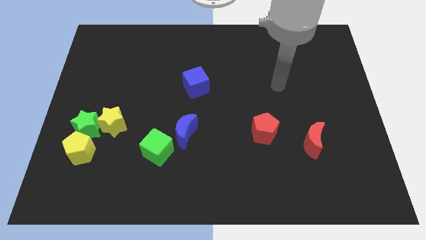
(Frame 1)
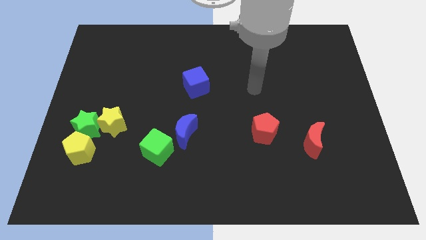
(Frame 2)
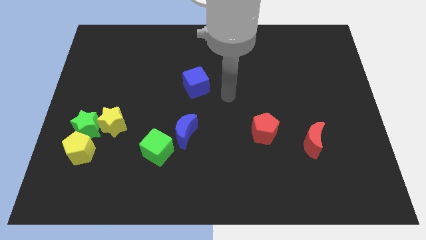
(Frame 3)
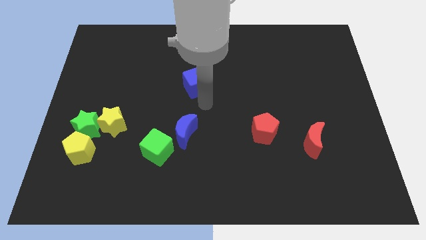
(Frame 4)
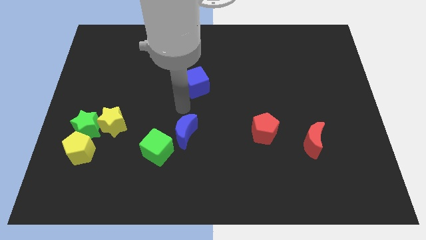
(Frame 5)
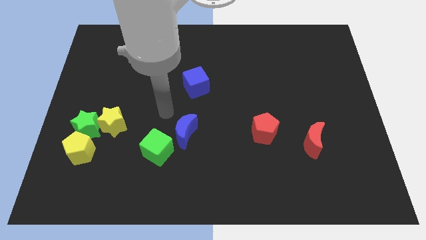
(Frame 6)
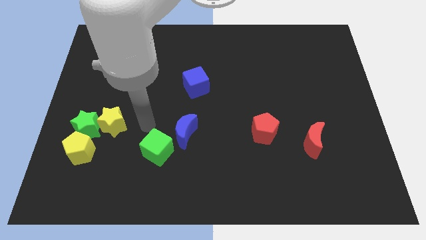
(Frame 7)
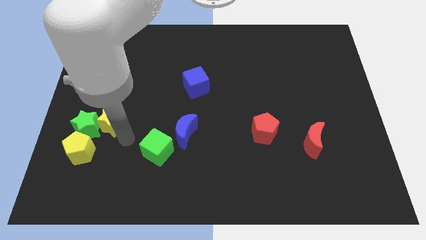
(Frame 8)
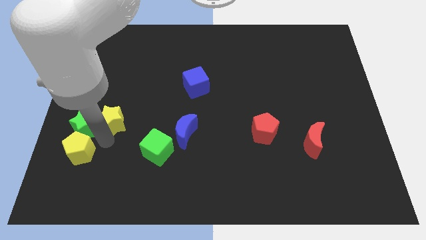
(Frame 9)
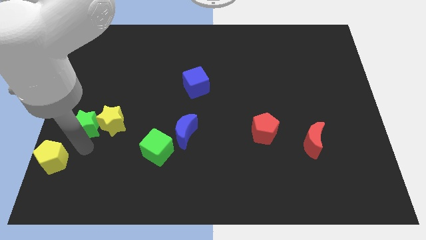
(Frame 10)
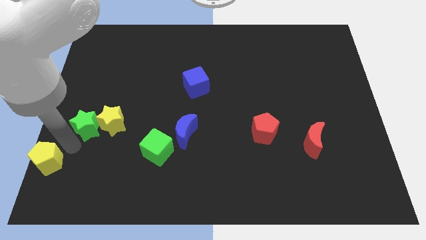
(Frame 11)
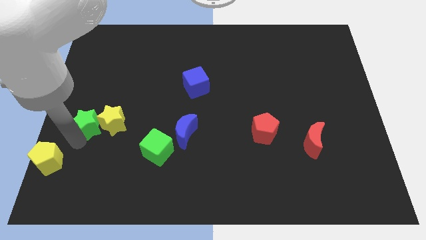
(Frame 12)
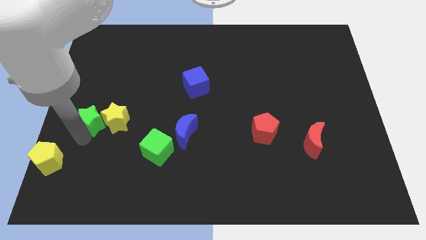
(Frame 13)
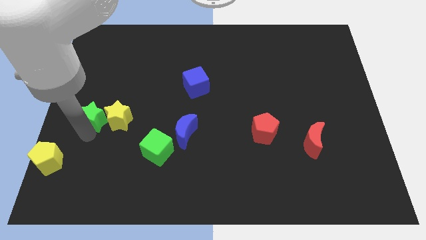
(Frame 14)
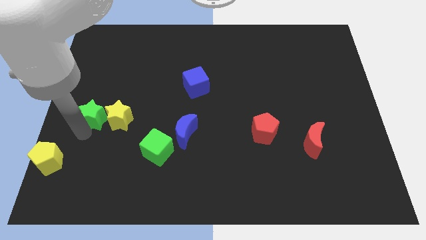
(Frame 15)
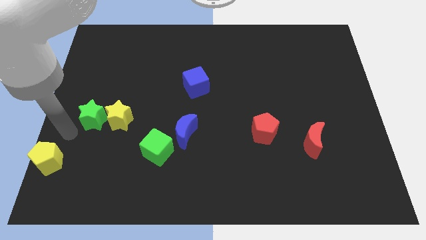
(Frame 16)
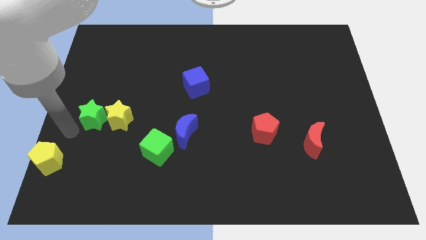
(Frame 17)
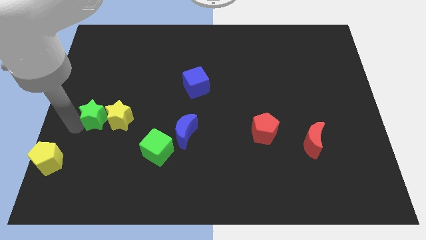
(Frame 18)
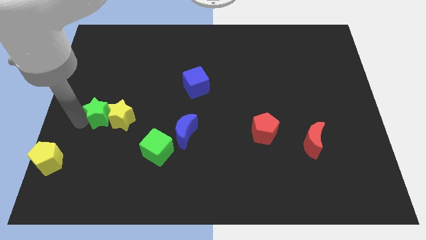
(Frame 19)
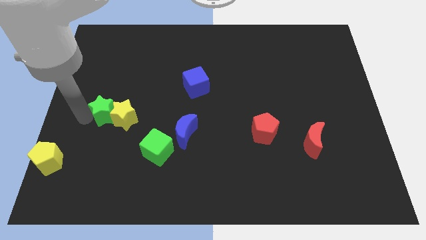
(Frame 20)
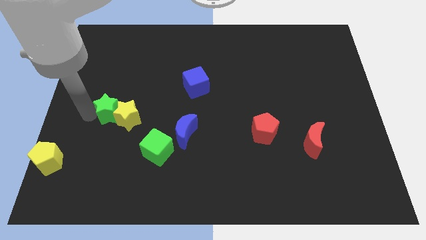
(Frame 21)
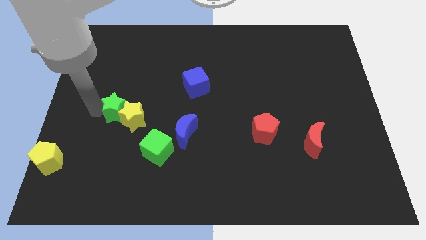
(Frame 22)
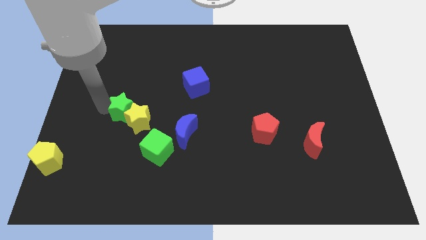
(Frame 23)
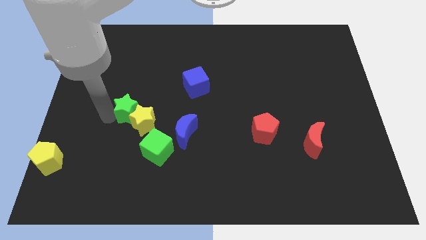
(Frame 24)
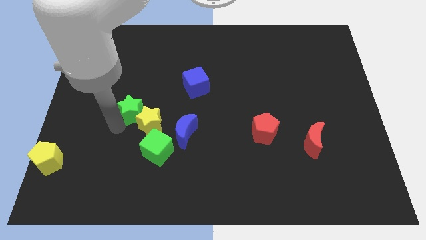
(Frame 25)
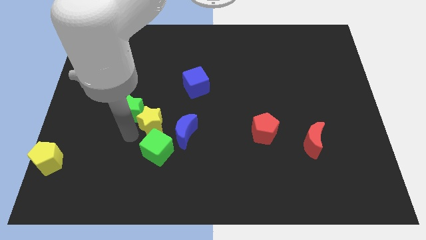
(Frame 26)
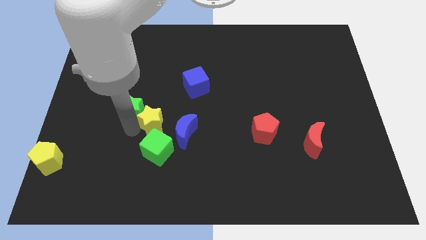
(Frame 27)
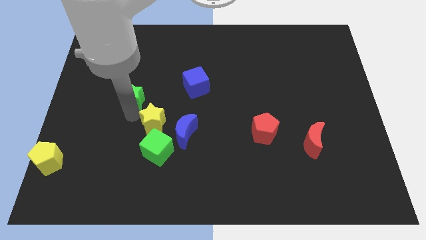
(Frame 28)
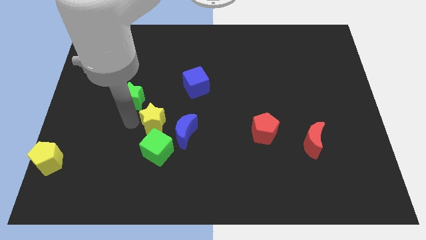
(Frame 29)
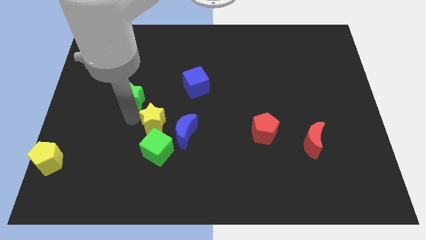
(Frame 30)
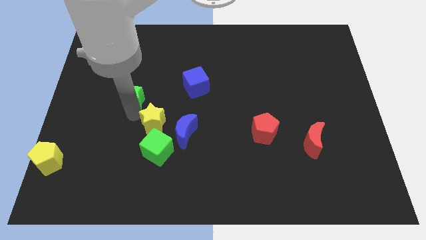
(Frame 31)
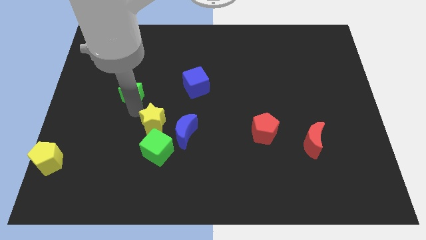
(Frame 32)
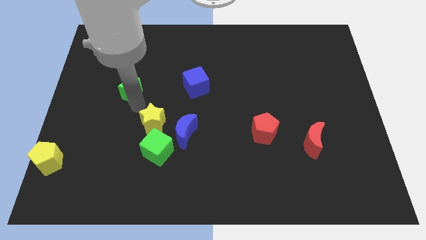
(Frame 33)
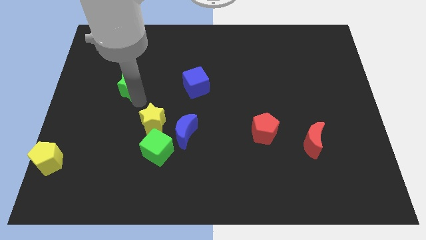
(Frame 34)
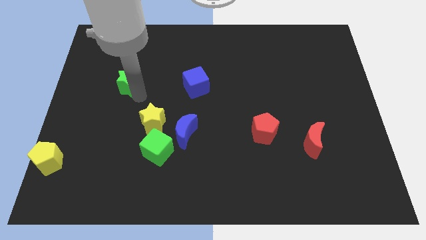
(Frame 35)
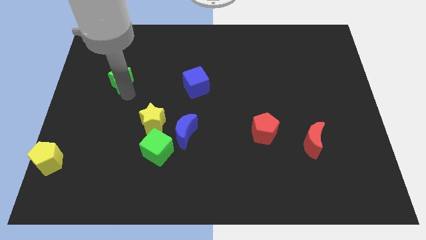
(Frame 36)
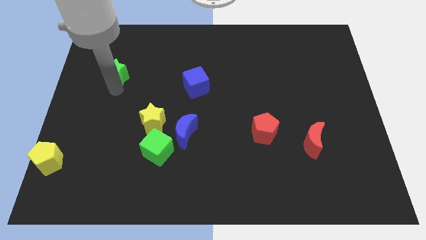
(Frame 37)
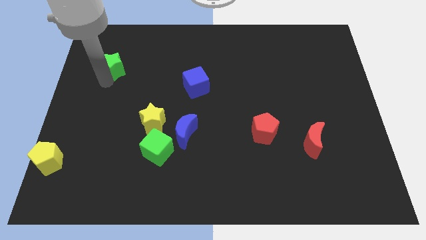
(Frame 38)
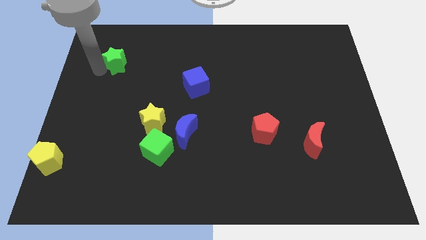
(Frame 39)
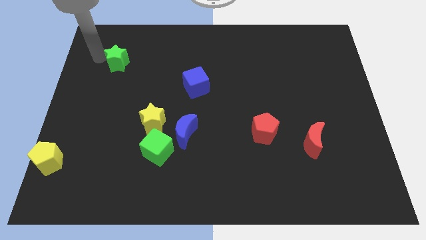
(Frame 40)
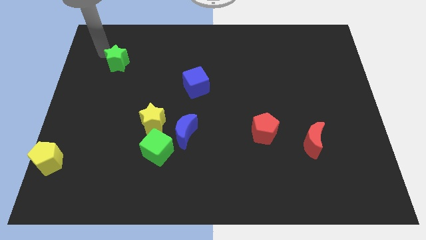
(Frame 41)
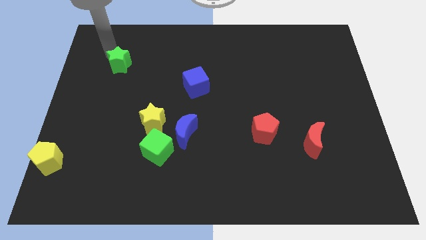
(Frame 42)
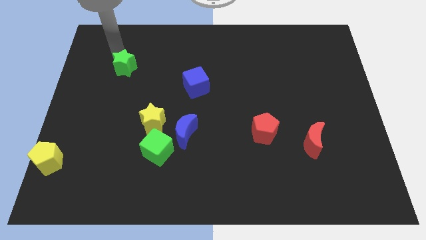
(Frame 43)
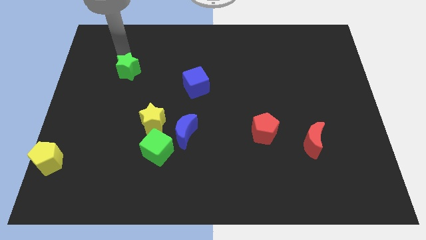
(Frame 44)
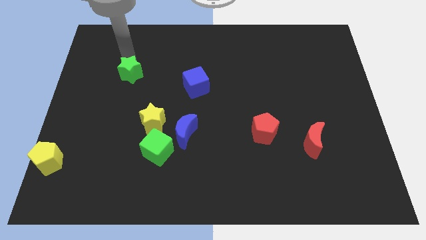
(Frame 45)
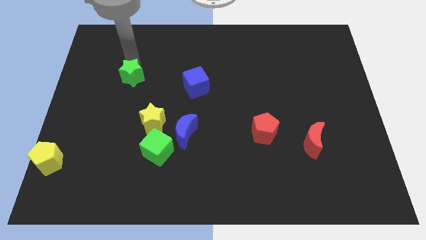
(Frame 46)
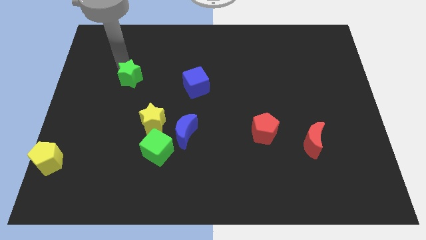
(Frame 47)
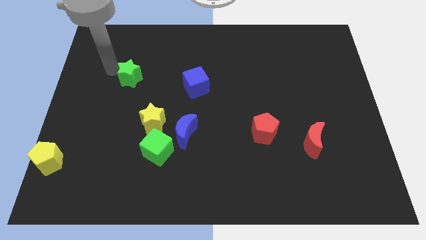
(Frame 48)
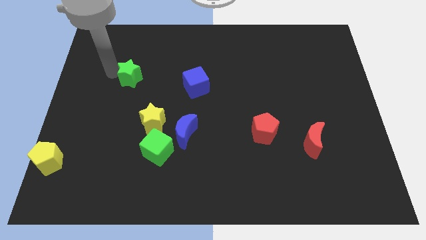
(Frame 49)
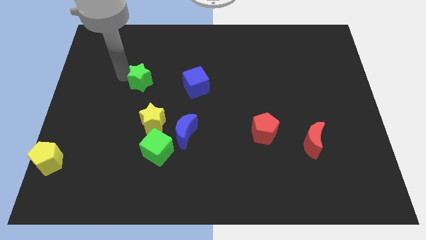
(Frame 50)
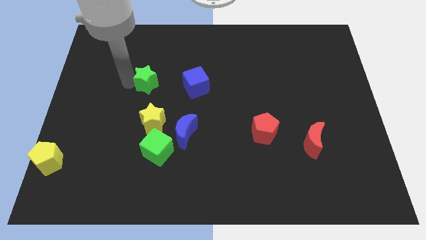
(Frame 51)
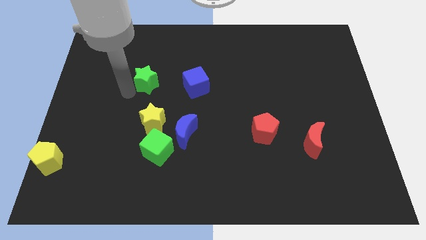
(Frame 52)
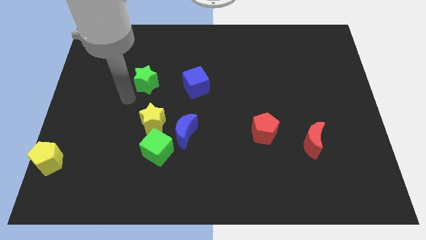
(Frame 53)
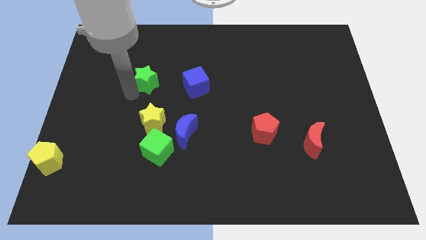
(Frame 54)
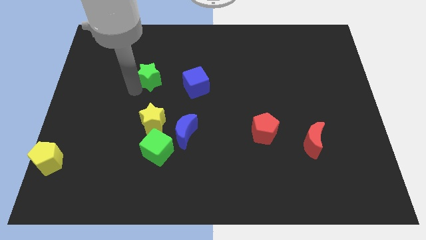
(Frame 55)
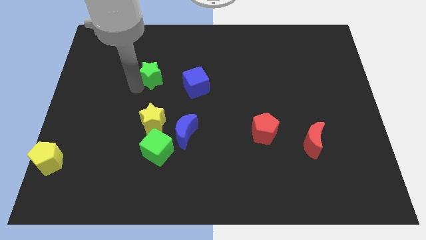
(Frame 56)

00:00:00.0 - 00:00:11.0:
push the green star upwards and right diagonally

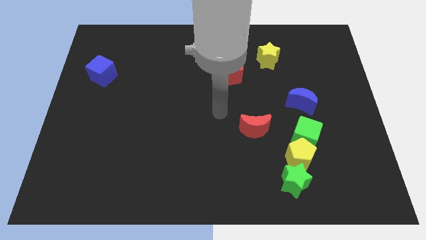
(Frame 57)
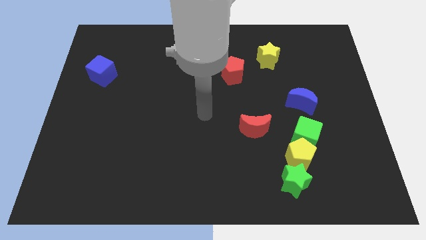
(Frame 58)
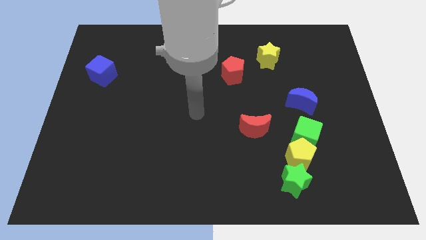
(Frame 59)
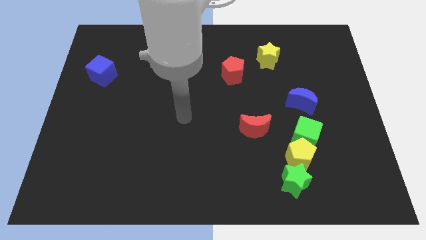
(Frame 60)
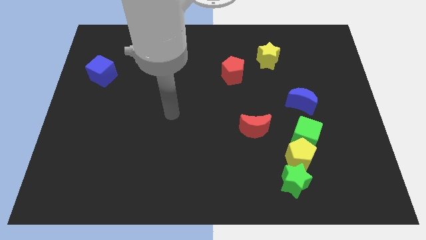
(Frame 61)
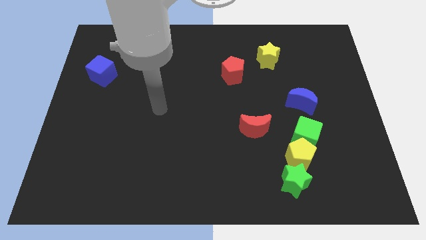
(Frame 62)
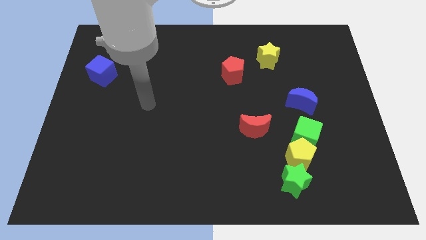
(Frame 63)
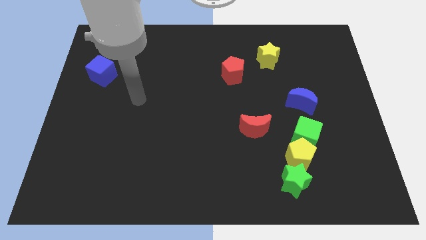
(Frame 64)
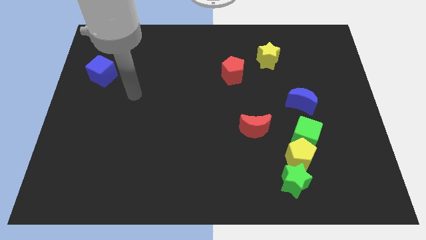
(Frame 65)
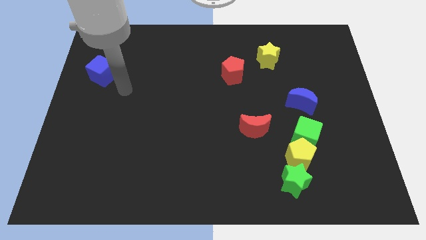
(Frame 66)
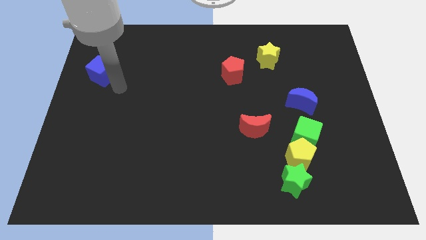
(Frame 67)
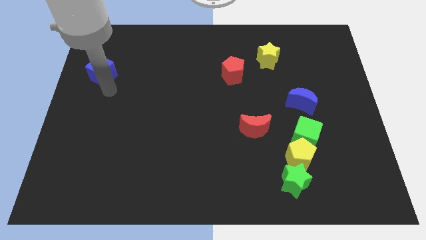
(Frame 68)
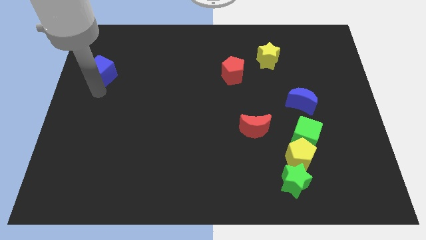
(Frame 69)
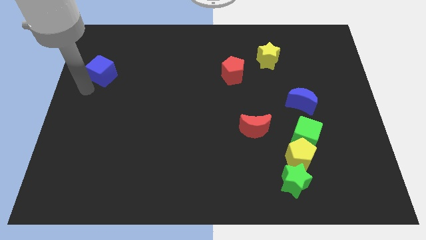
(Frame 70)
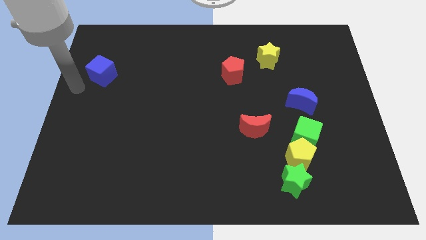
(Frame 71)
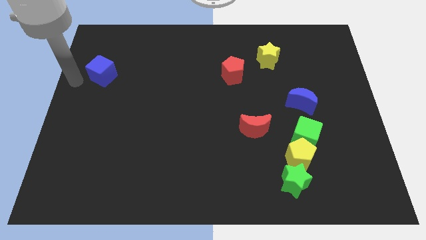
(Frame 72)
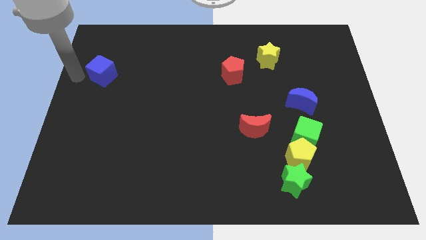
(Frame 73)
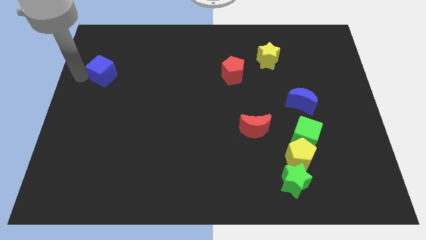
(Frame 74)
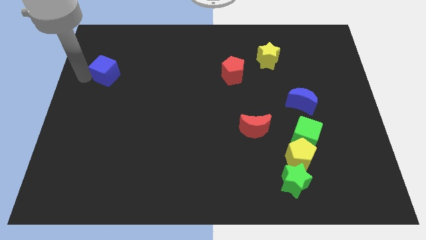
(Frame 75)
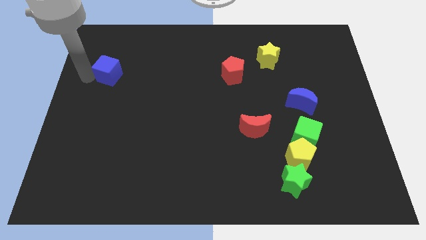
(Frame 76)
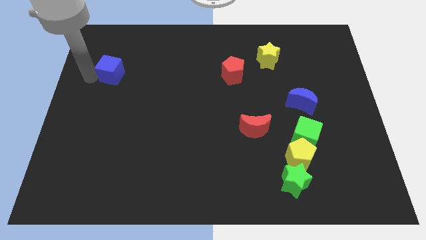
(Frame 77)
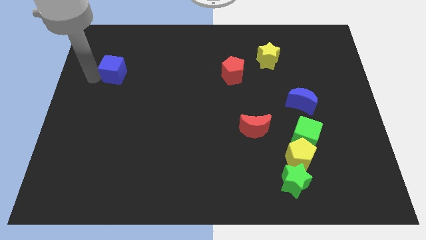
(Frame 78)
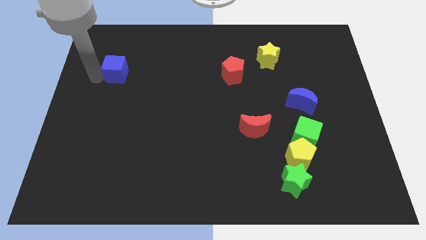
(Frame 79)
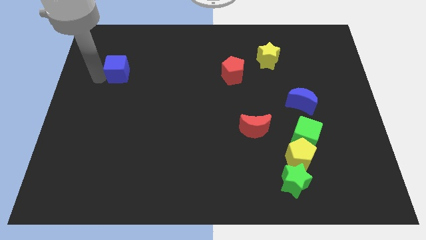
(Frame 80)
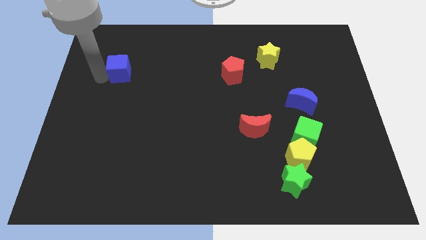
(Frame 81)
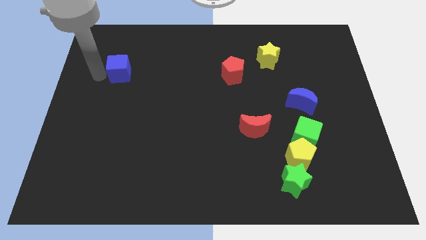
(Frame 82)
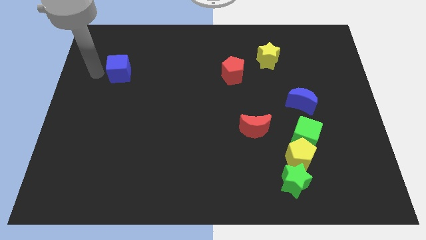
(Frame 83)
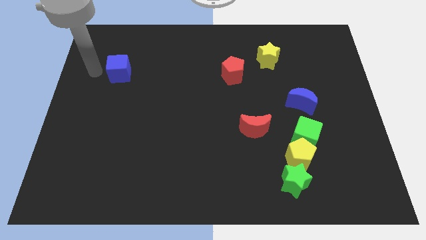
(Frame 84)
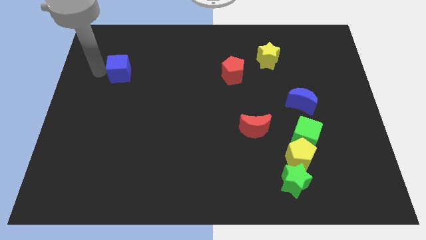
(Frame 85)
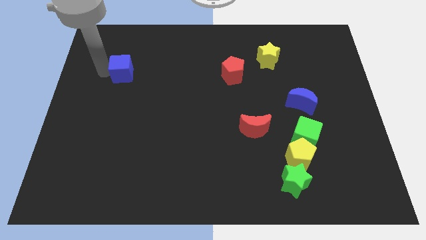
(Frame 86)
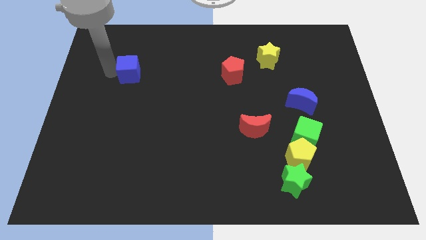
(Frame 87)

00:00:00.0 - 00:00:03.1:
move the blue cube right somewhat
